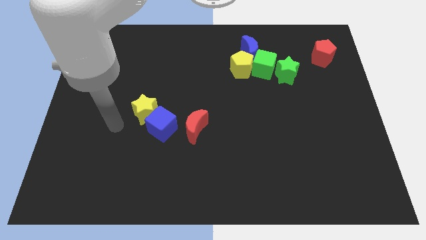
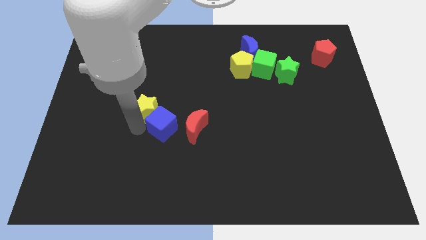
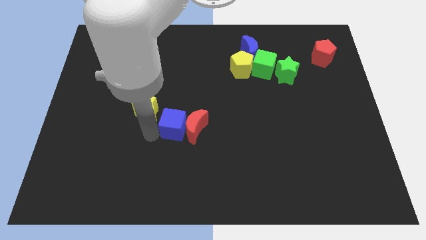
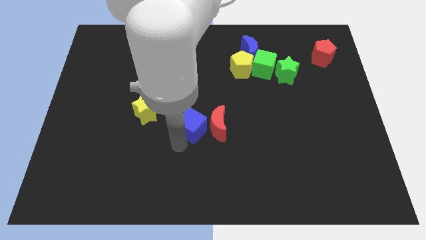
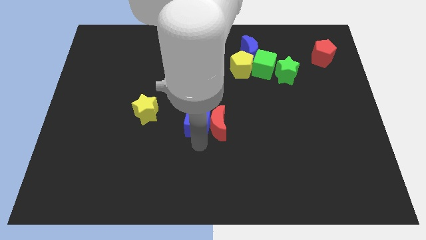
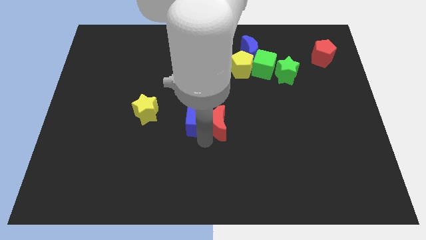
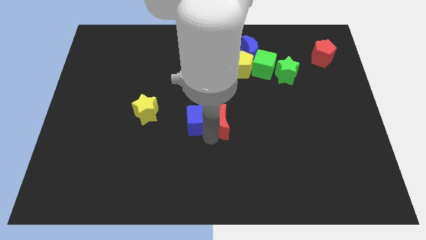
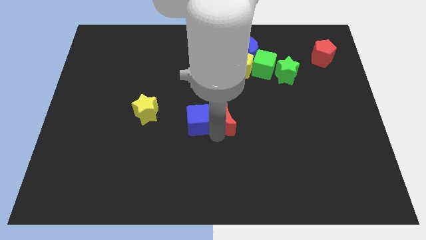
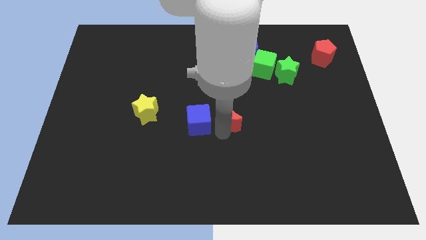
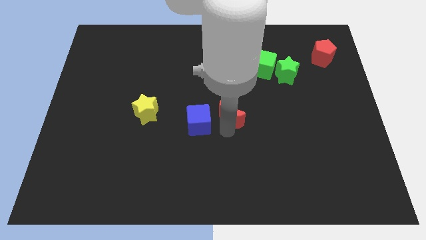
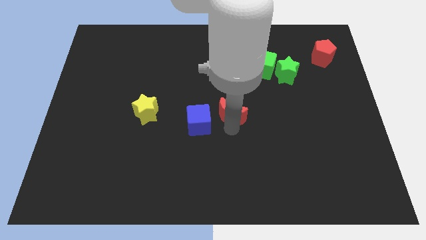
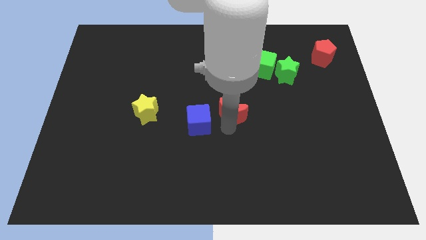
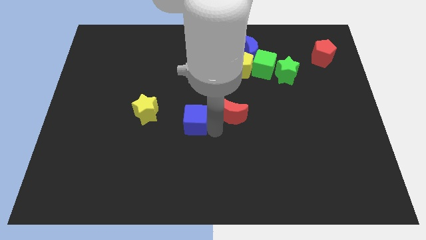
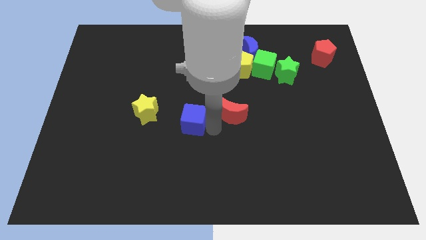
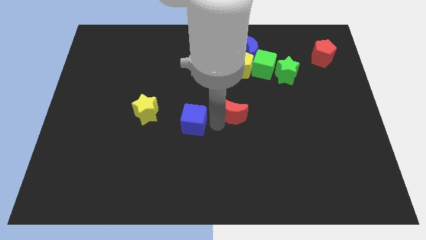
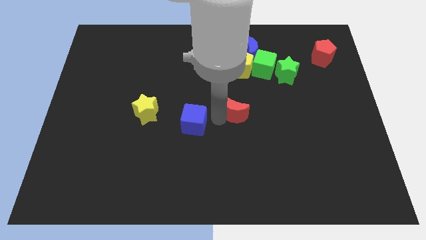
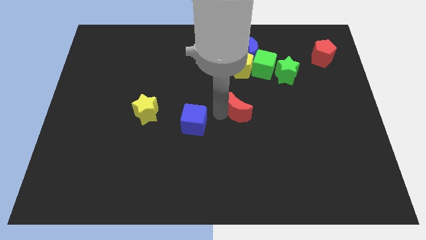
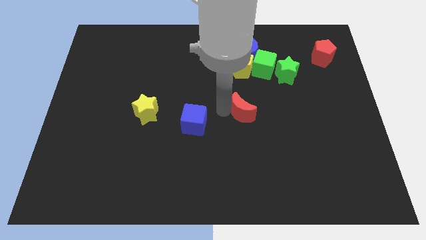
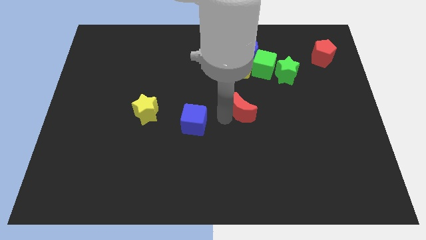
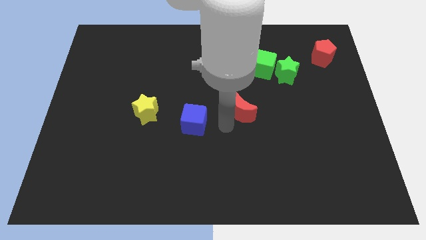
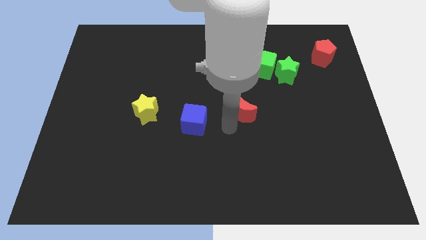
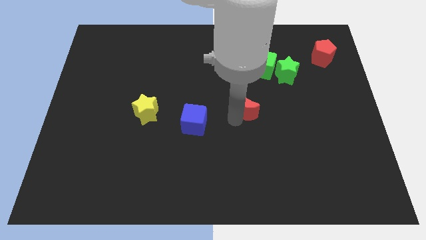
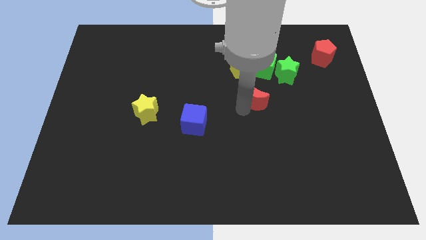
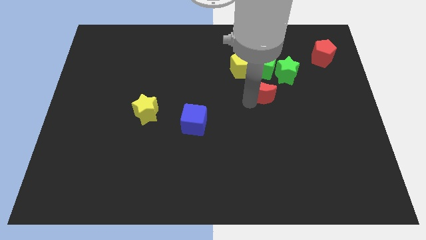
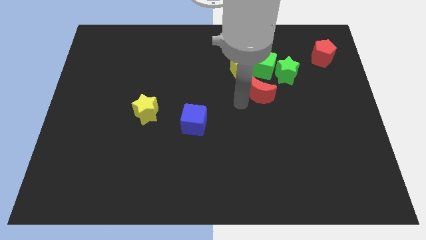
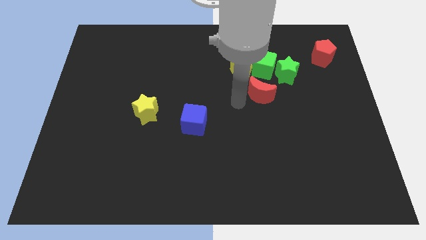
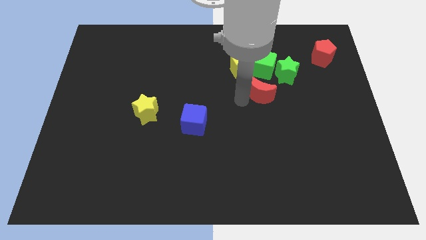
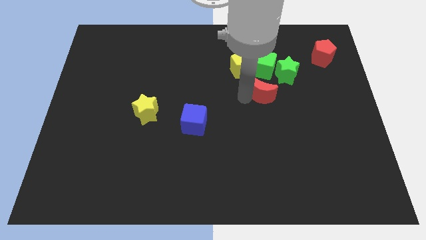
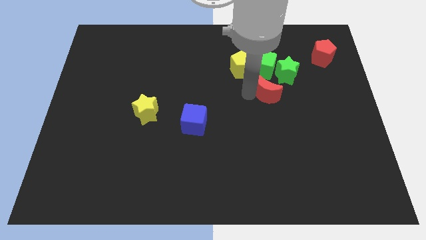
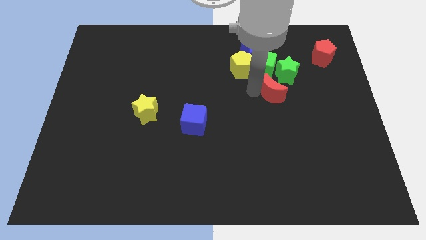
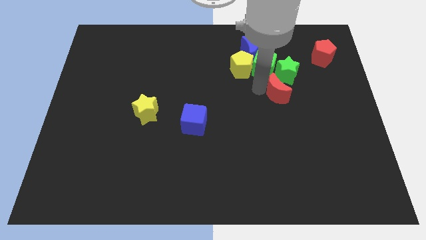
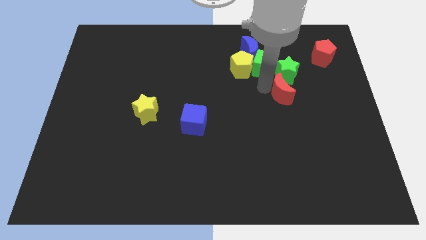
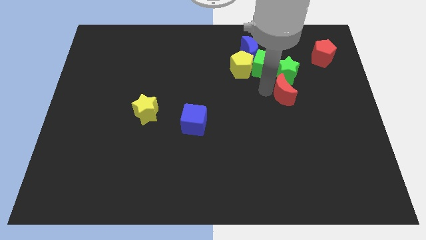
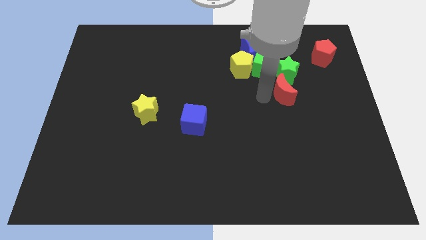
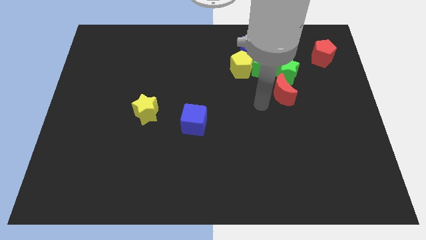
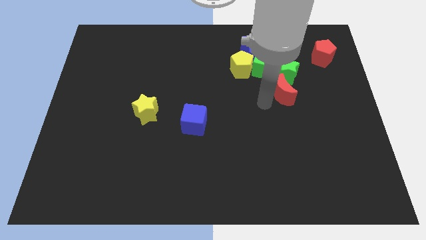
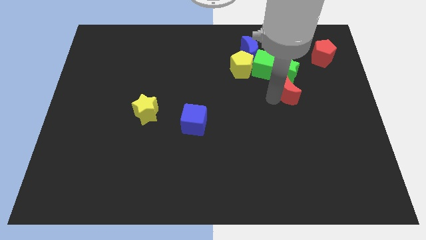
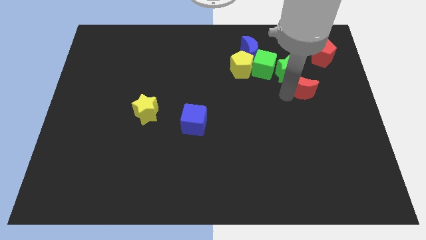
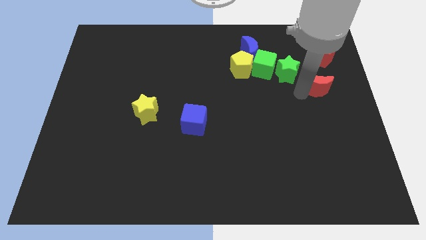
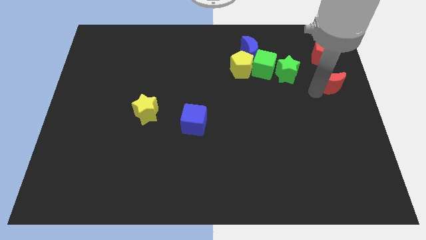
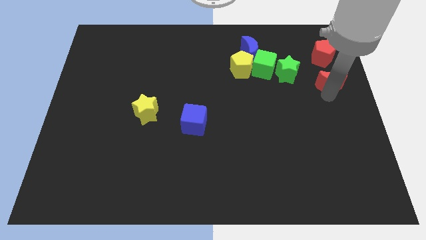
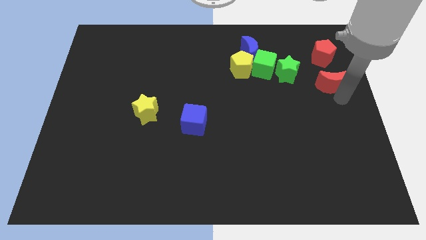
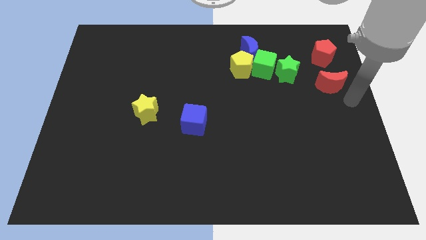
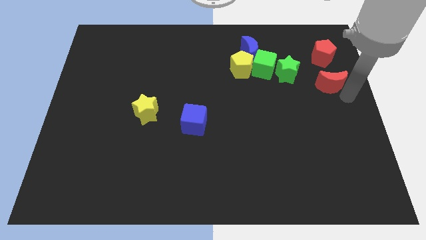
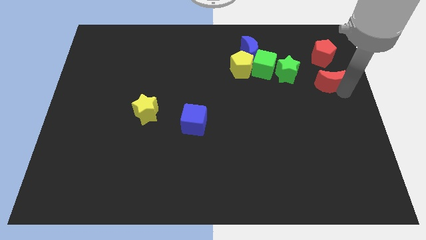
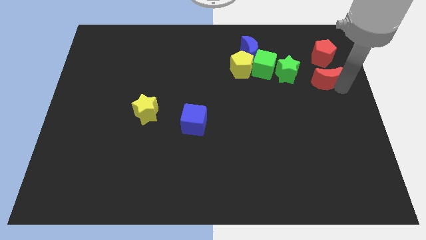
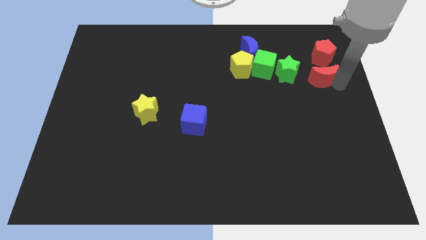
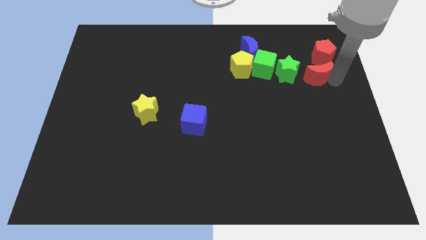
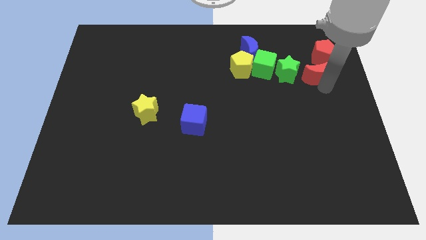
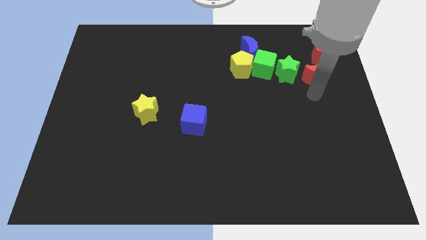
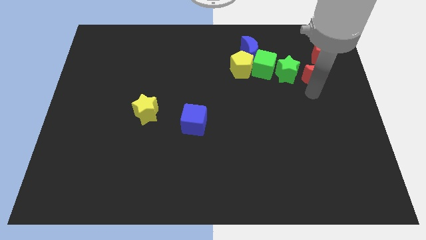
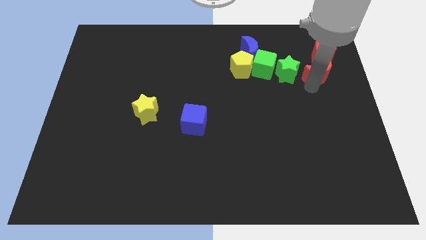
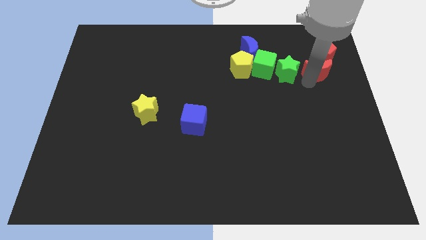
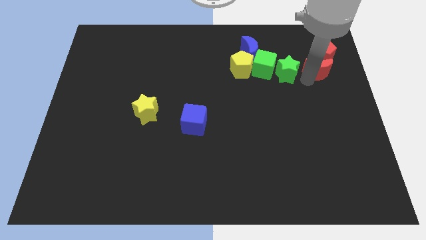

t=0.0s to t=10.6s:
put the red moon towards the red pentagon

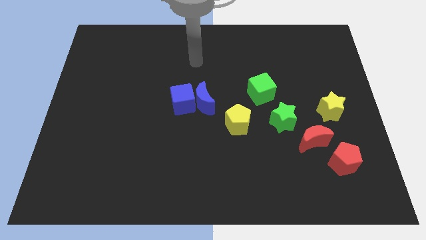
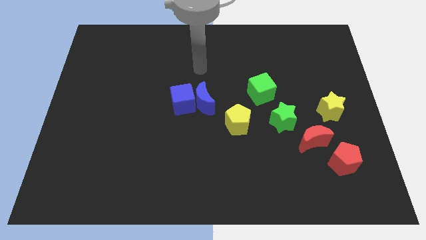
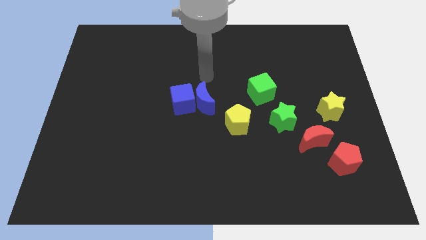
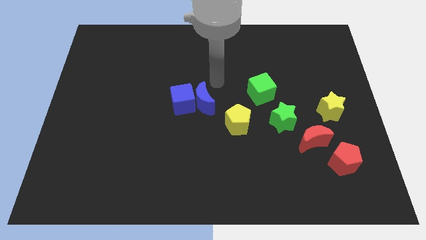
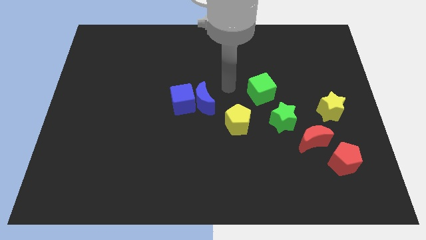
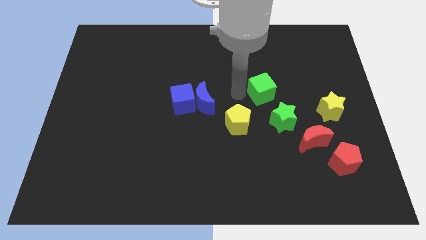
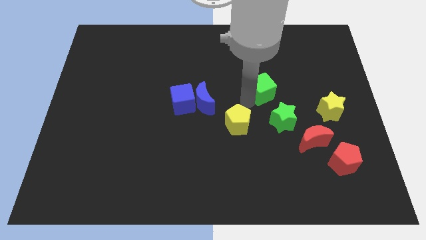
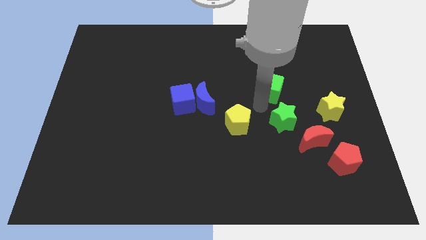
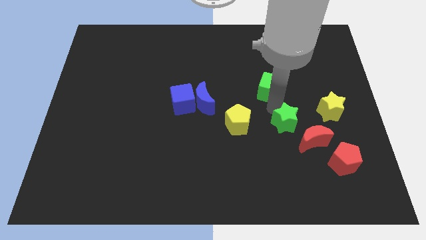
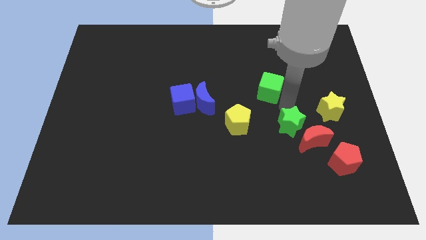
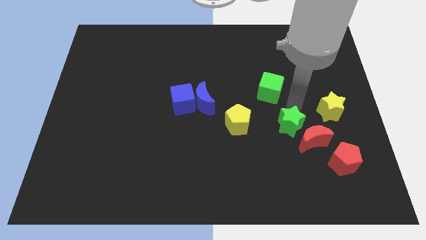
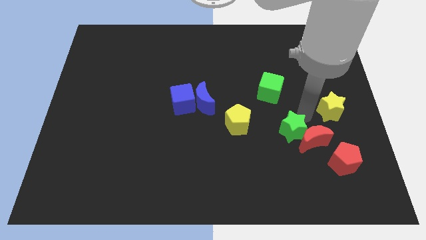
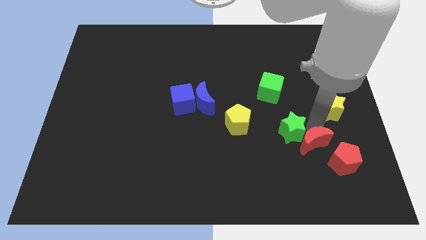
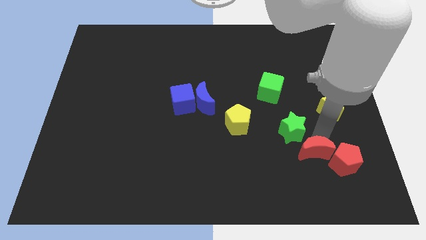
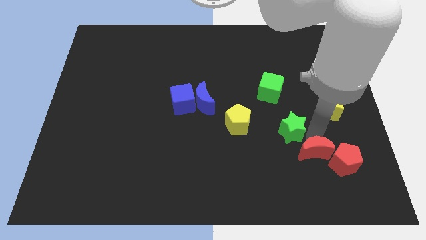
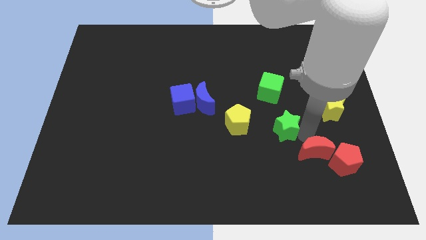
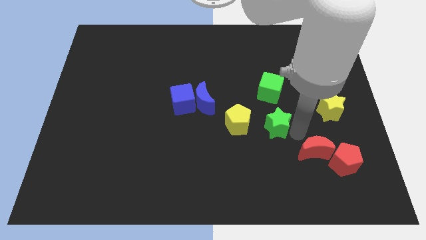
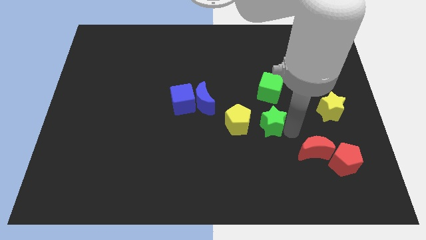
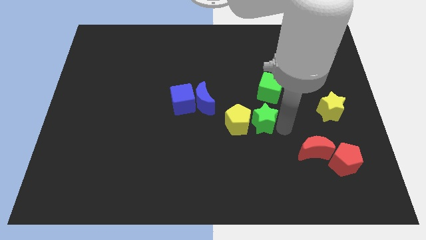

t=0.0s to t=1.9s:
slide the green star to the yellow pentagon

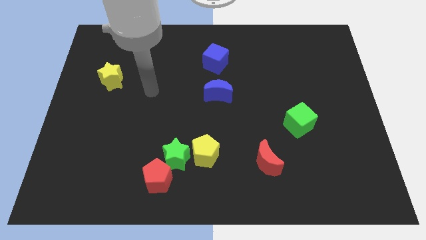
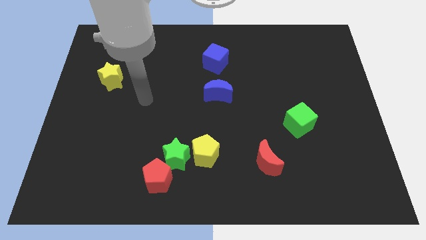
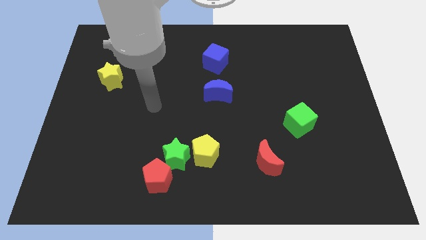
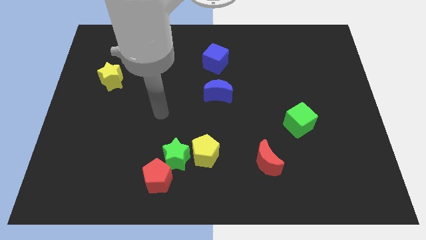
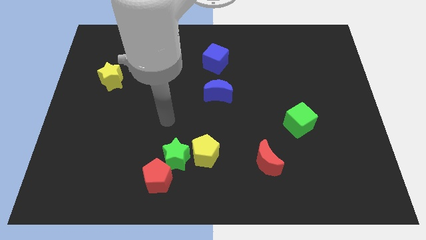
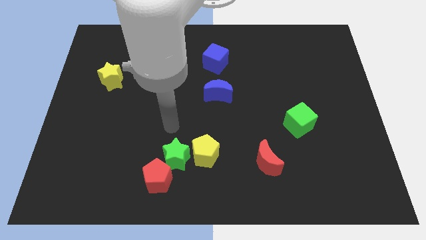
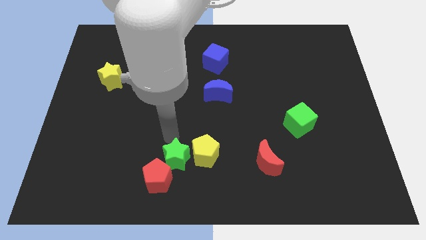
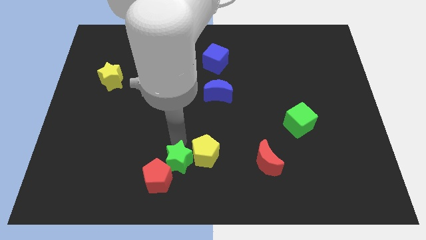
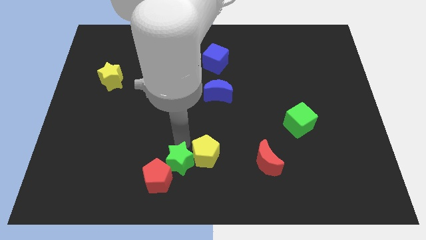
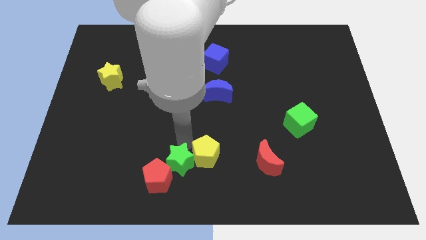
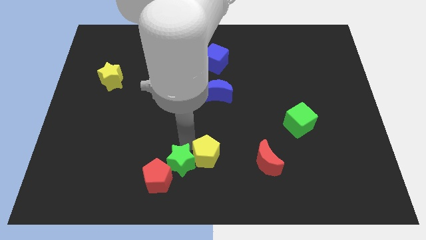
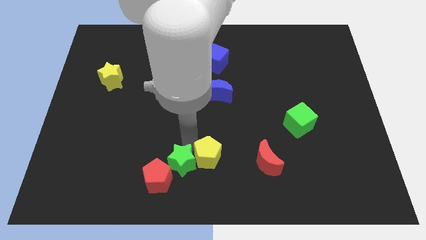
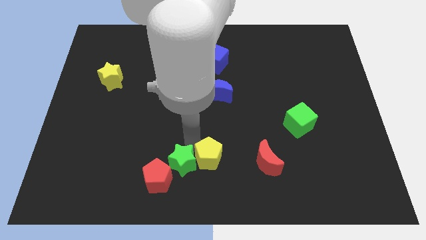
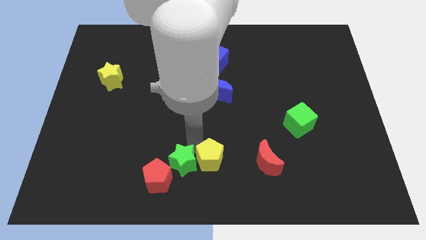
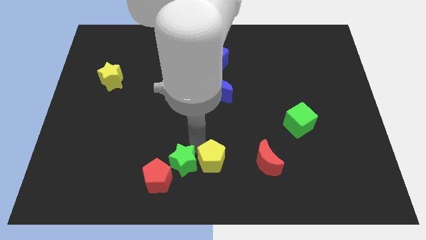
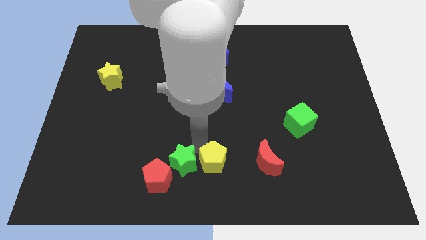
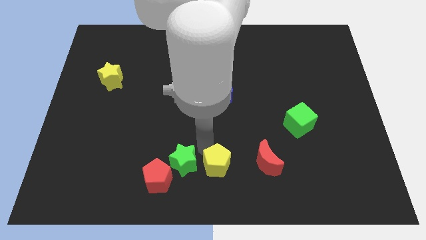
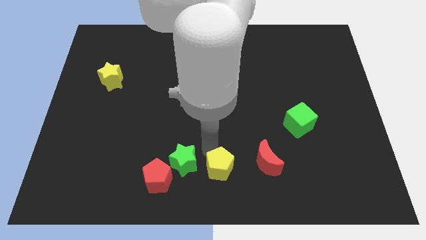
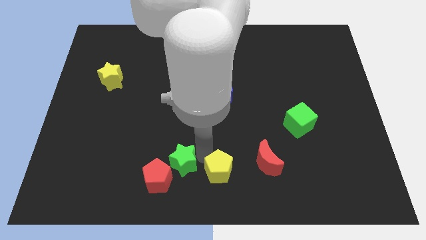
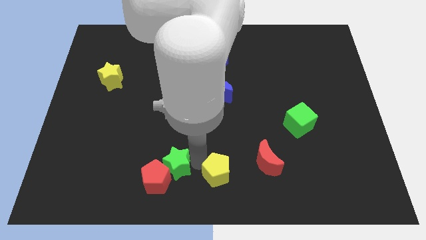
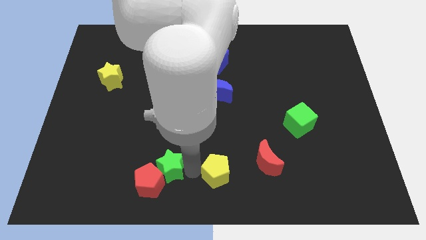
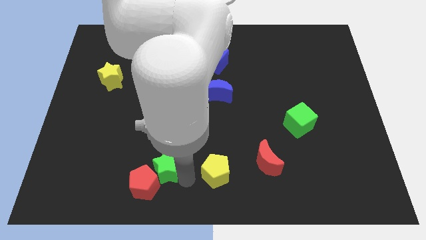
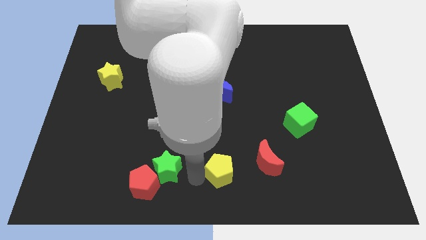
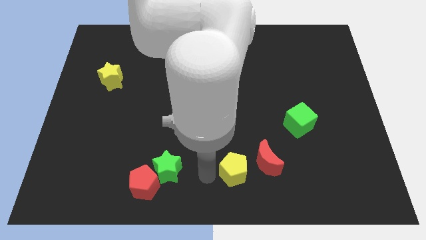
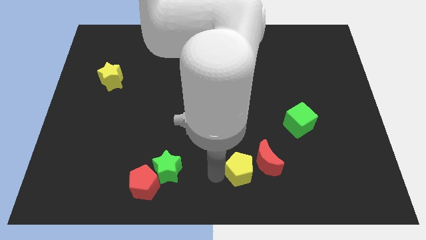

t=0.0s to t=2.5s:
slide the yellow pentagon next to the red moon
